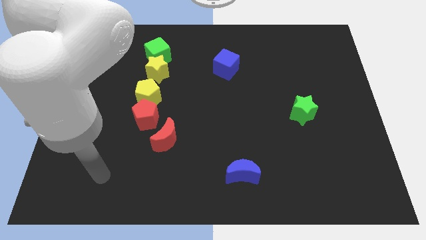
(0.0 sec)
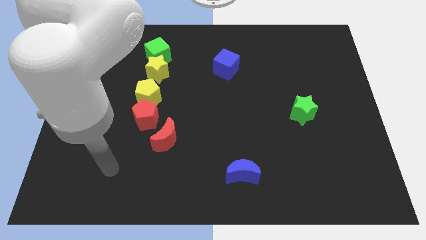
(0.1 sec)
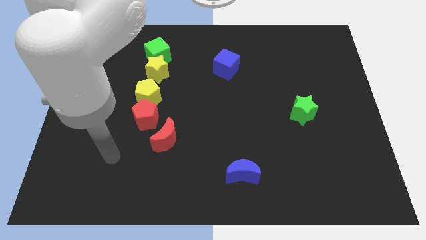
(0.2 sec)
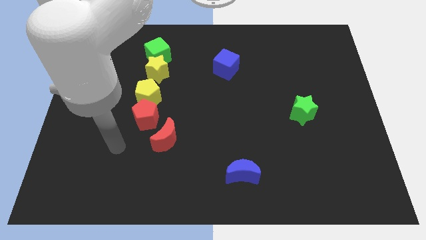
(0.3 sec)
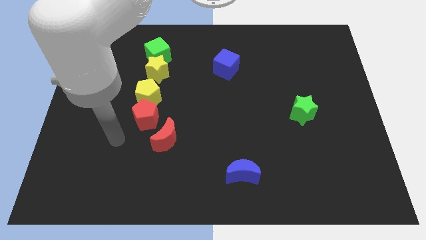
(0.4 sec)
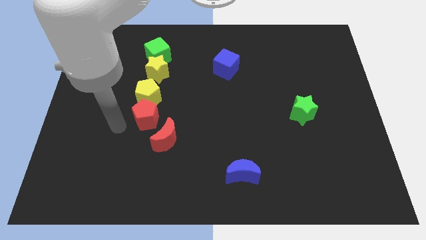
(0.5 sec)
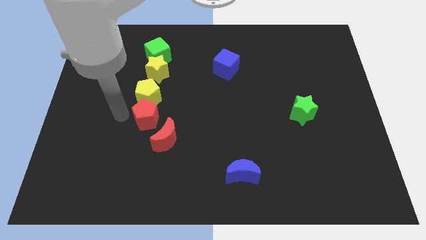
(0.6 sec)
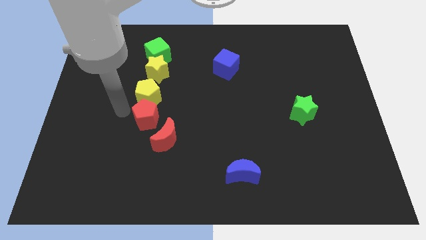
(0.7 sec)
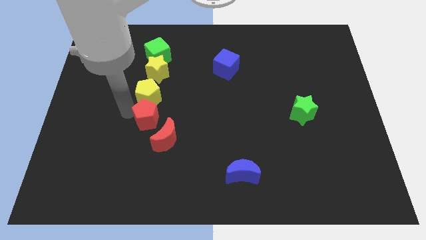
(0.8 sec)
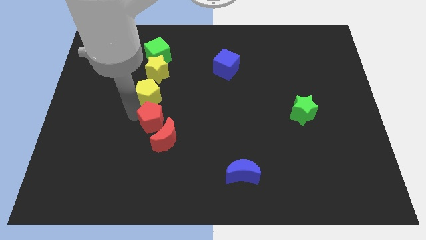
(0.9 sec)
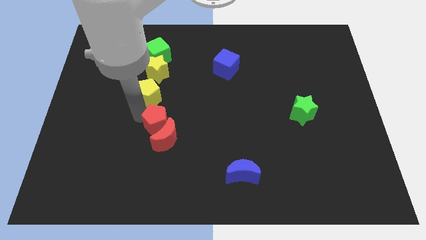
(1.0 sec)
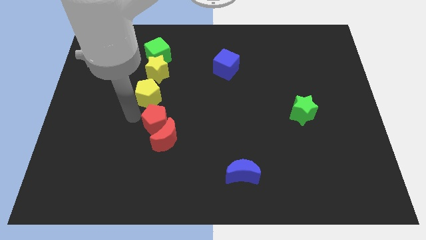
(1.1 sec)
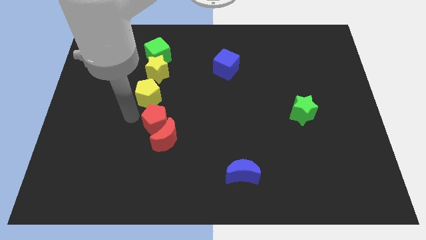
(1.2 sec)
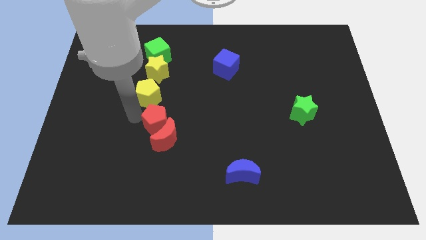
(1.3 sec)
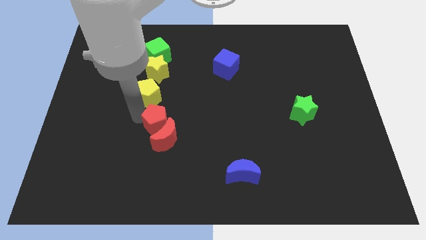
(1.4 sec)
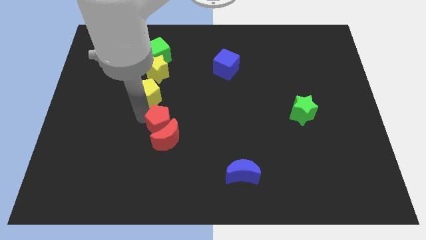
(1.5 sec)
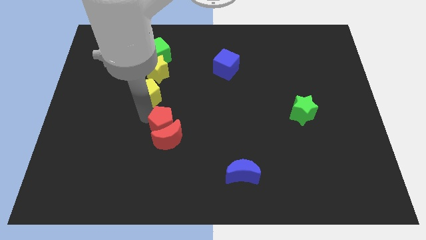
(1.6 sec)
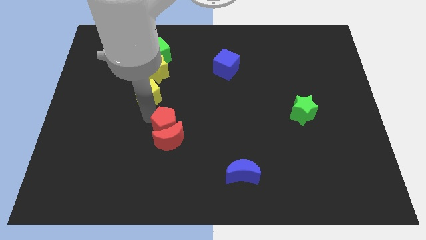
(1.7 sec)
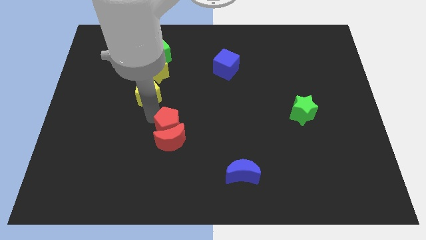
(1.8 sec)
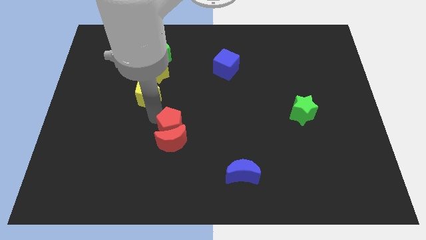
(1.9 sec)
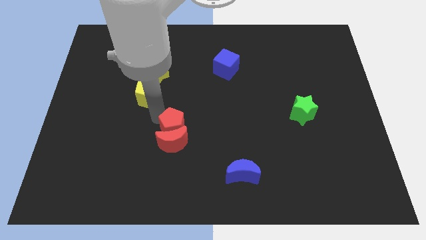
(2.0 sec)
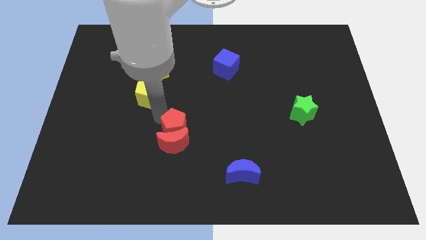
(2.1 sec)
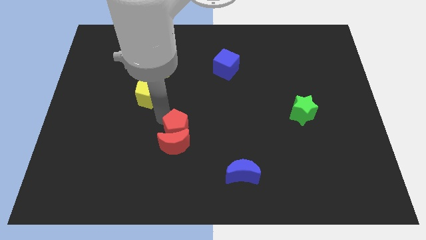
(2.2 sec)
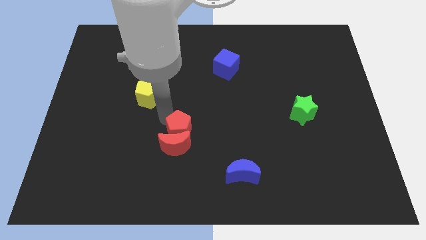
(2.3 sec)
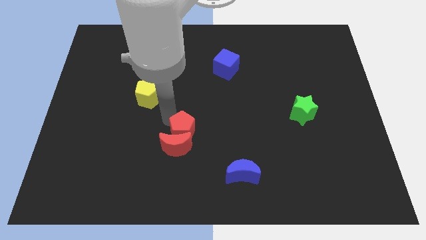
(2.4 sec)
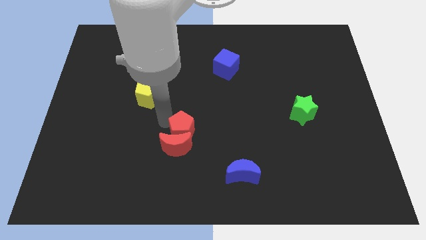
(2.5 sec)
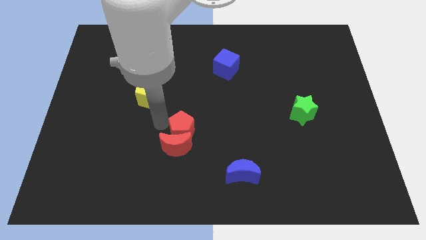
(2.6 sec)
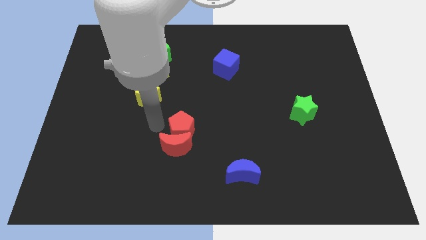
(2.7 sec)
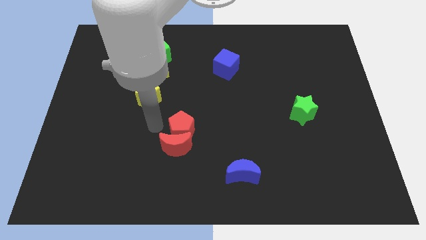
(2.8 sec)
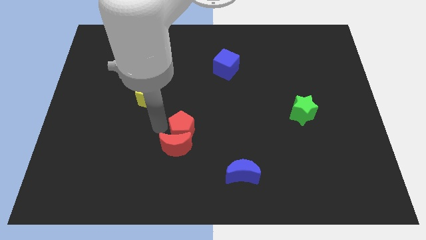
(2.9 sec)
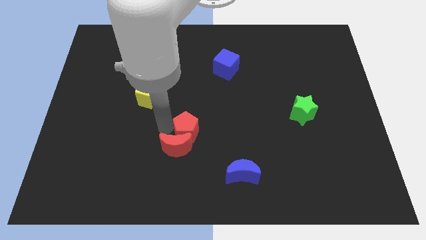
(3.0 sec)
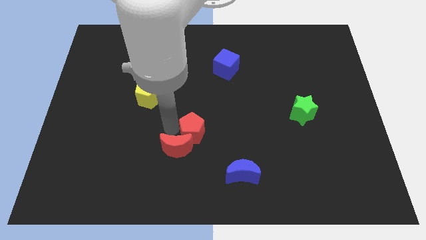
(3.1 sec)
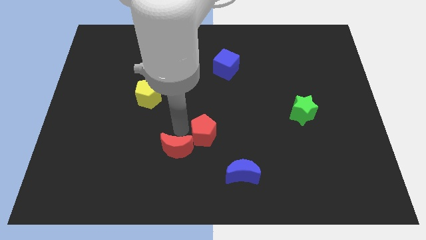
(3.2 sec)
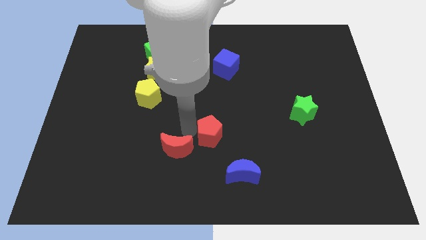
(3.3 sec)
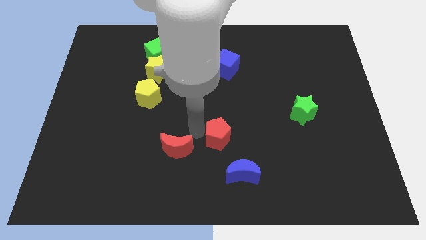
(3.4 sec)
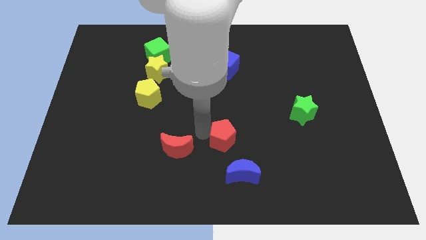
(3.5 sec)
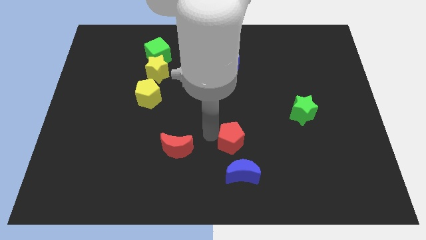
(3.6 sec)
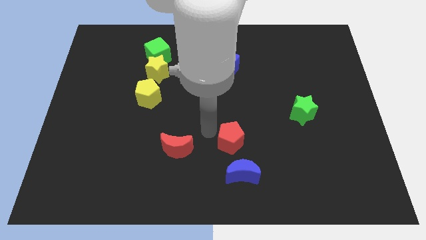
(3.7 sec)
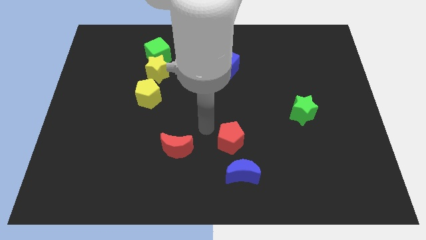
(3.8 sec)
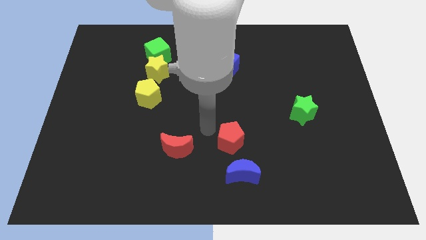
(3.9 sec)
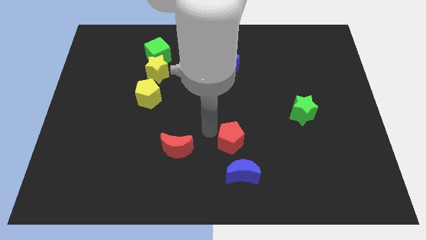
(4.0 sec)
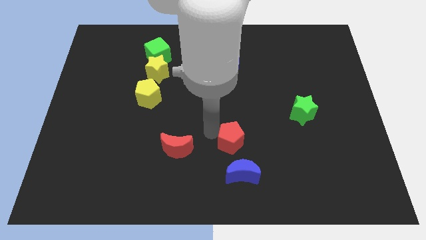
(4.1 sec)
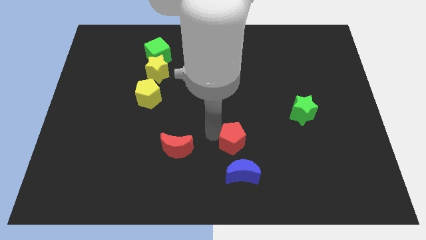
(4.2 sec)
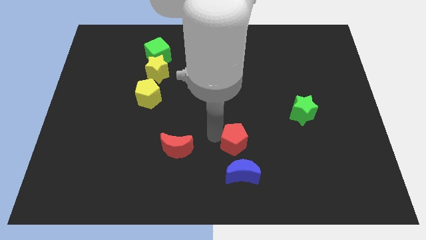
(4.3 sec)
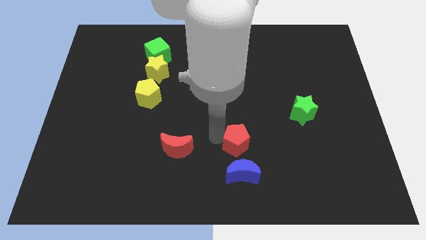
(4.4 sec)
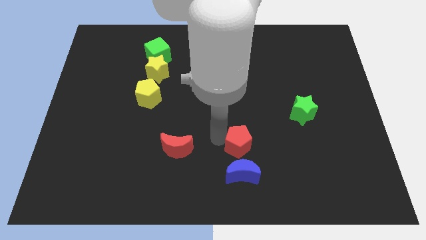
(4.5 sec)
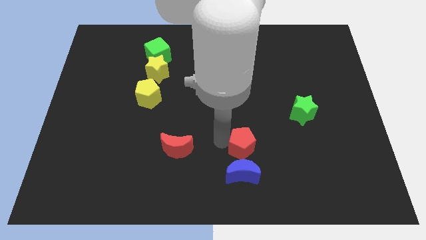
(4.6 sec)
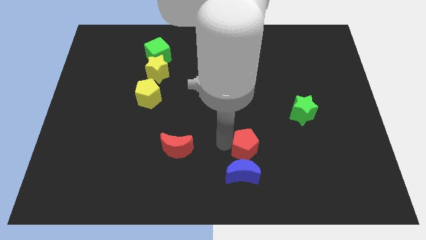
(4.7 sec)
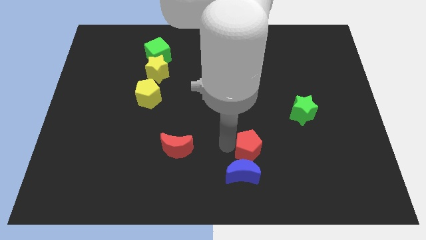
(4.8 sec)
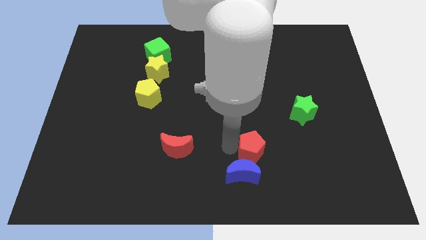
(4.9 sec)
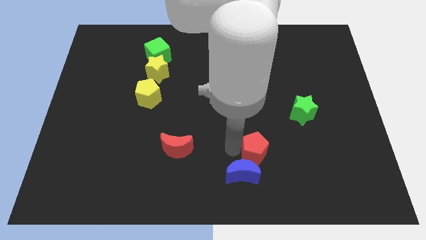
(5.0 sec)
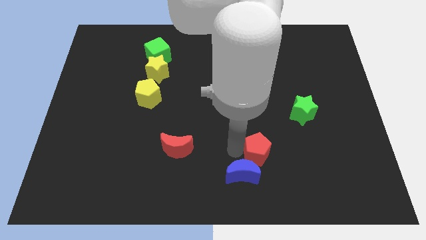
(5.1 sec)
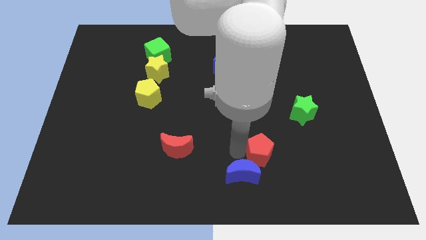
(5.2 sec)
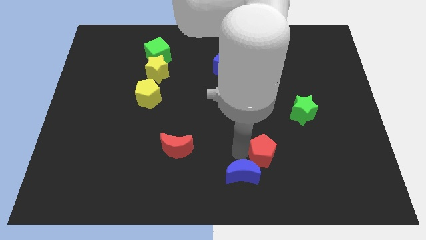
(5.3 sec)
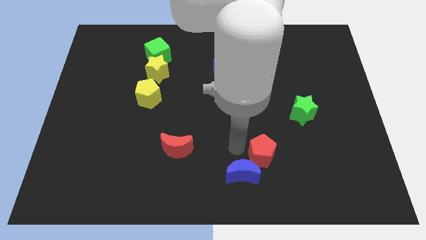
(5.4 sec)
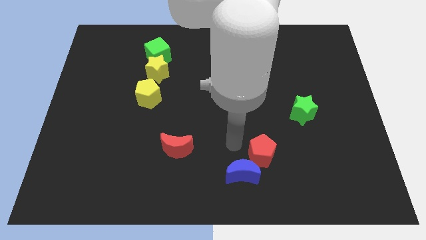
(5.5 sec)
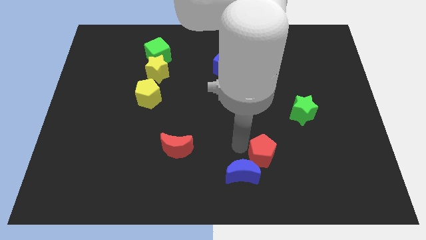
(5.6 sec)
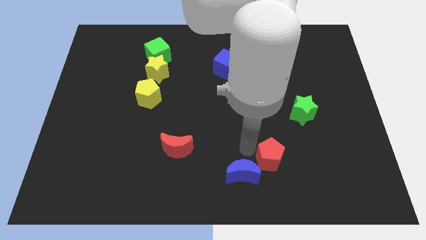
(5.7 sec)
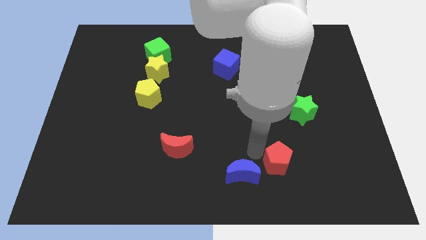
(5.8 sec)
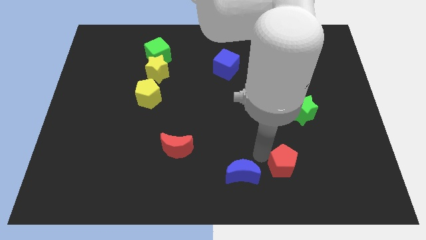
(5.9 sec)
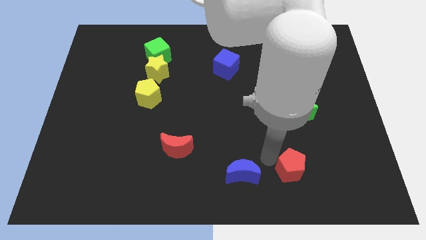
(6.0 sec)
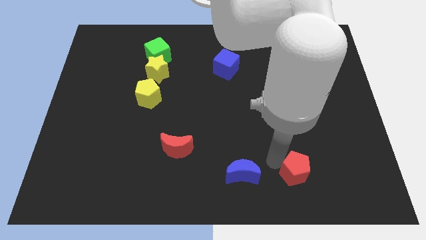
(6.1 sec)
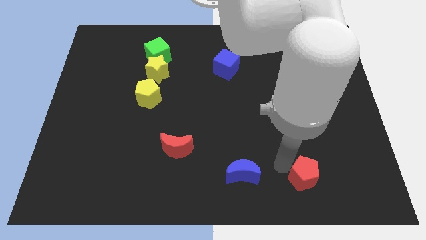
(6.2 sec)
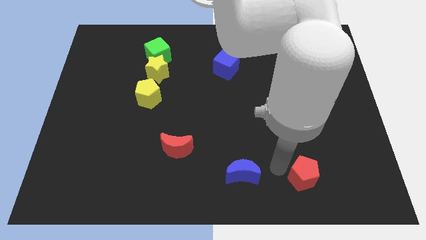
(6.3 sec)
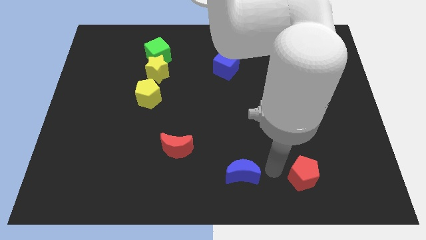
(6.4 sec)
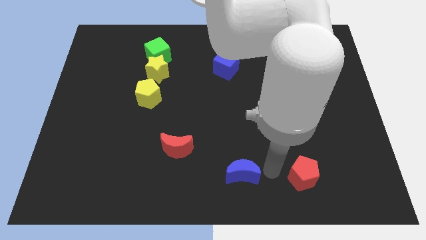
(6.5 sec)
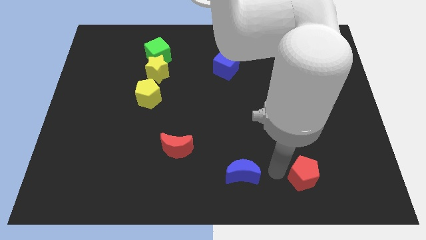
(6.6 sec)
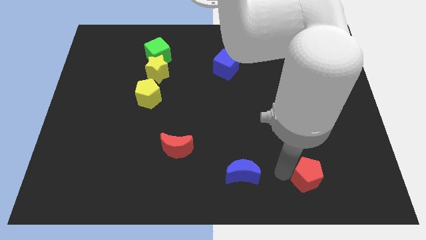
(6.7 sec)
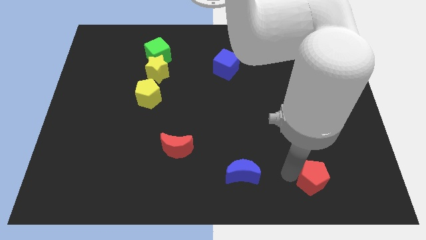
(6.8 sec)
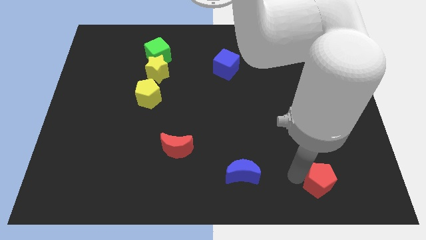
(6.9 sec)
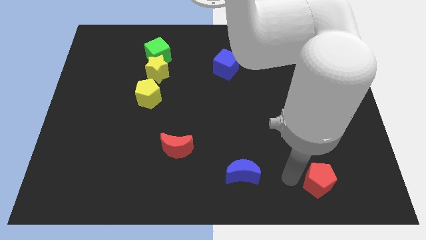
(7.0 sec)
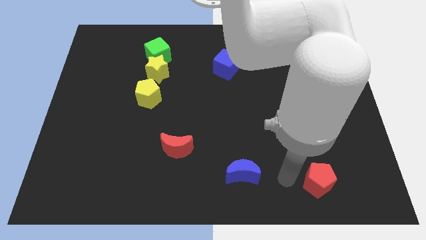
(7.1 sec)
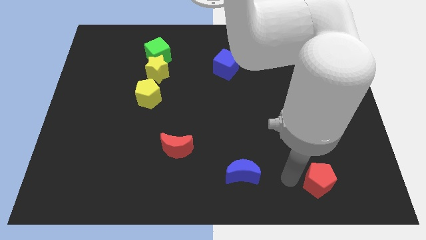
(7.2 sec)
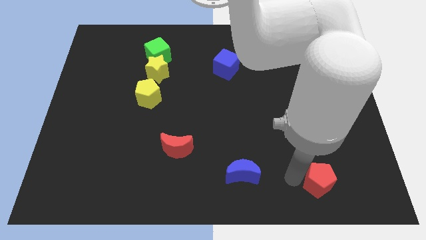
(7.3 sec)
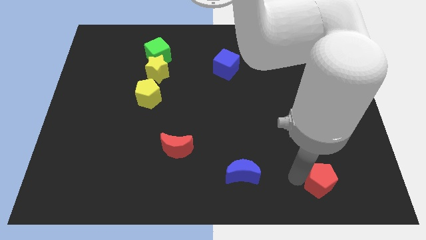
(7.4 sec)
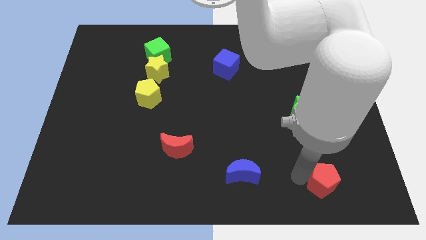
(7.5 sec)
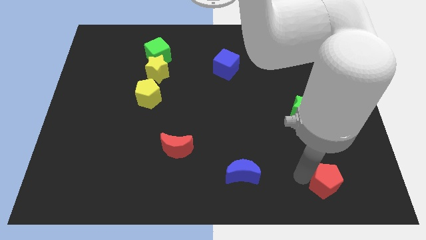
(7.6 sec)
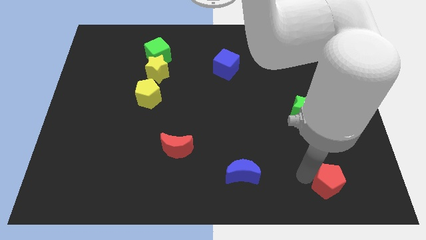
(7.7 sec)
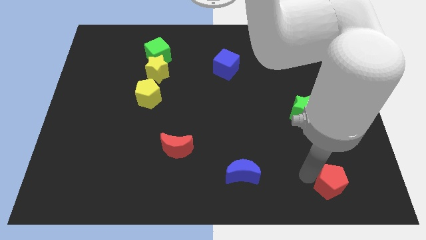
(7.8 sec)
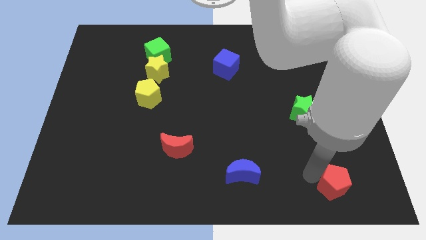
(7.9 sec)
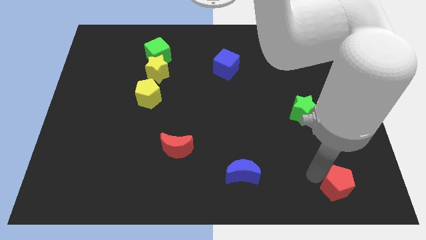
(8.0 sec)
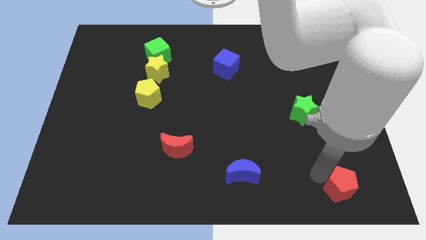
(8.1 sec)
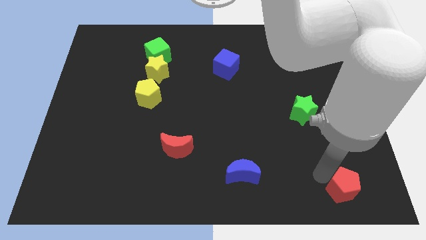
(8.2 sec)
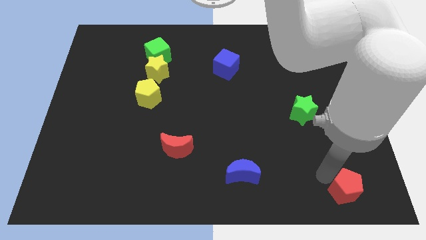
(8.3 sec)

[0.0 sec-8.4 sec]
put the red pentagon to the bottom right of the board
